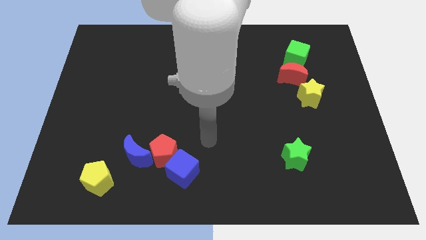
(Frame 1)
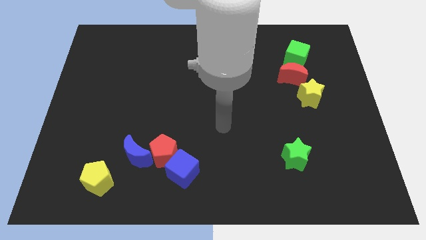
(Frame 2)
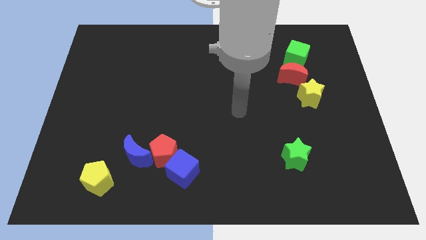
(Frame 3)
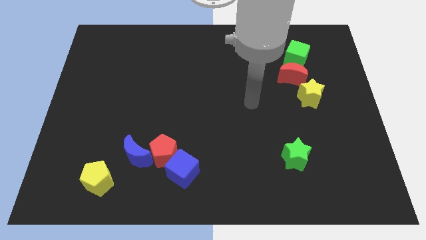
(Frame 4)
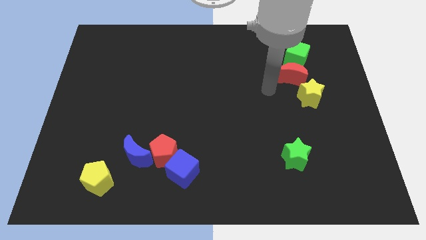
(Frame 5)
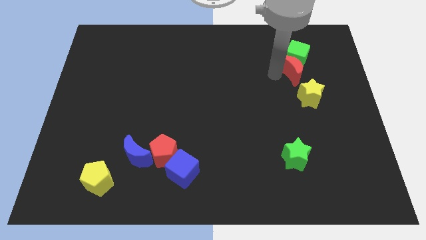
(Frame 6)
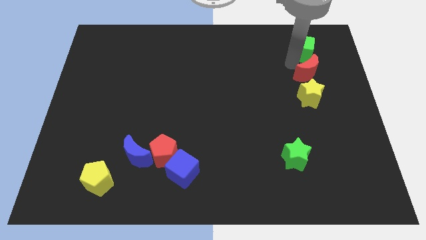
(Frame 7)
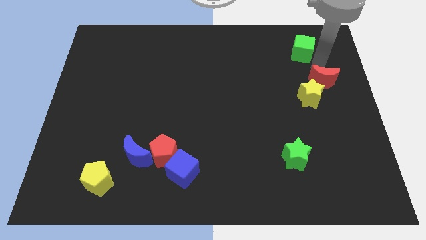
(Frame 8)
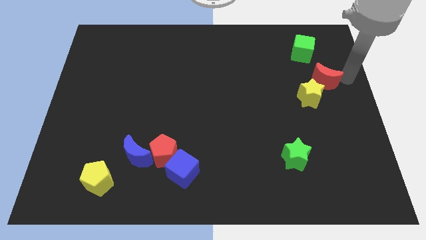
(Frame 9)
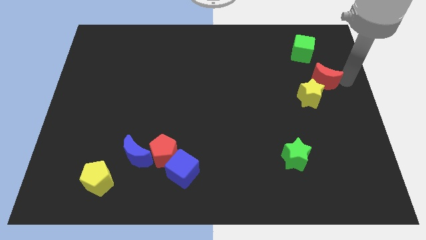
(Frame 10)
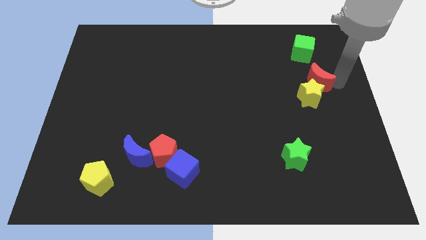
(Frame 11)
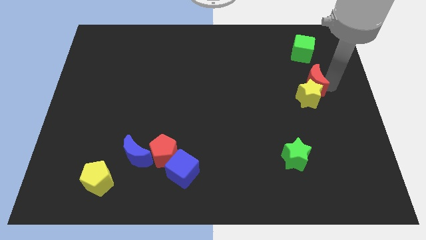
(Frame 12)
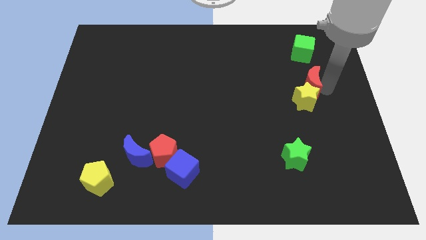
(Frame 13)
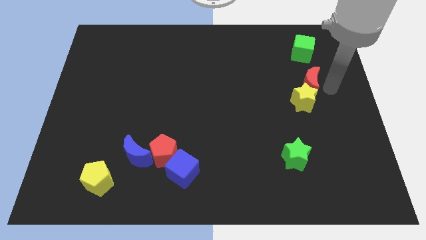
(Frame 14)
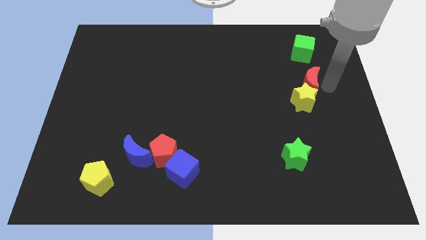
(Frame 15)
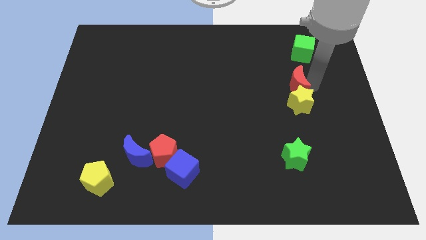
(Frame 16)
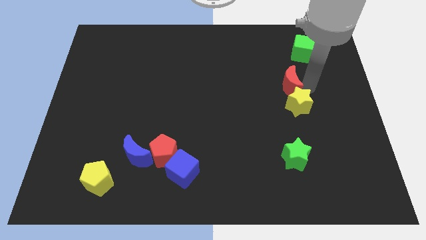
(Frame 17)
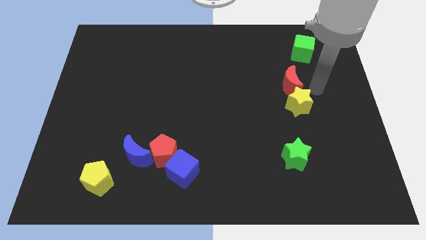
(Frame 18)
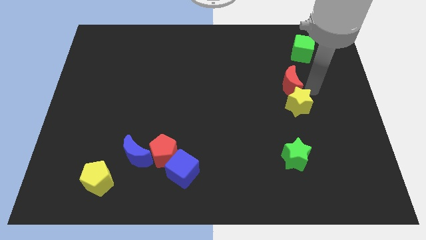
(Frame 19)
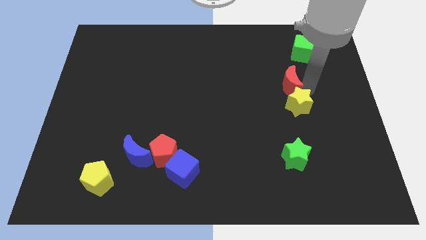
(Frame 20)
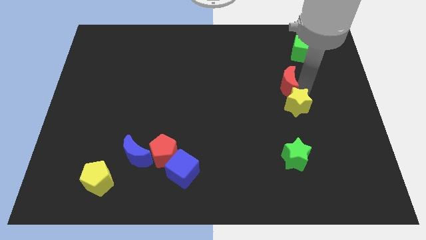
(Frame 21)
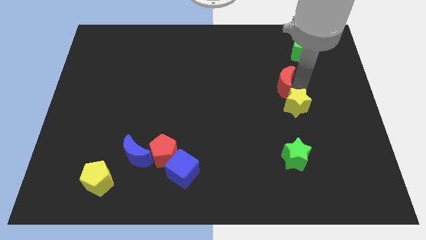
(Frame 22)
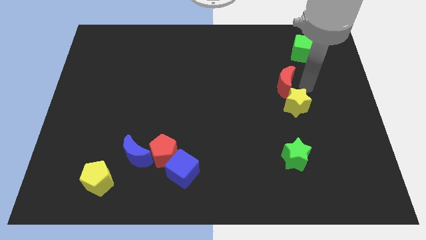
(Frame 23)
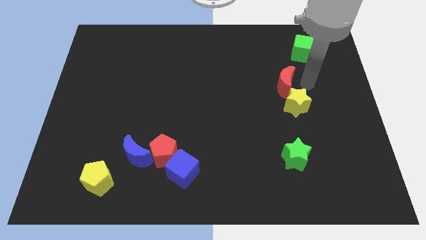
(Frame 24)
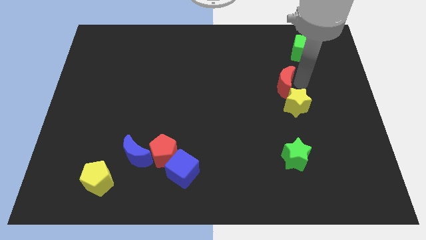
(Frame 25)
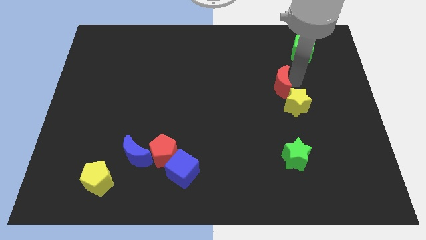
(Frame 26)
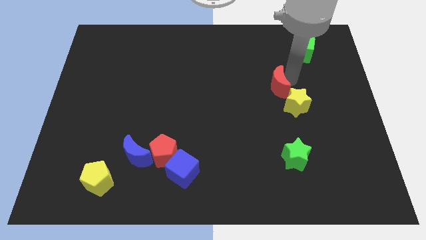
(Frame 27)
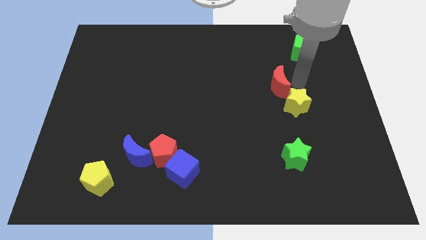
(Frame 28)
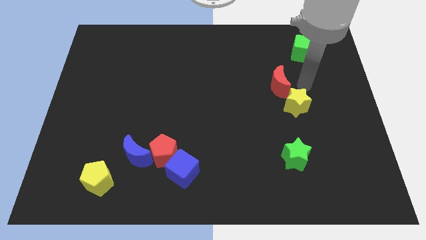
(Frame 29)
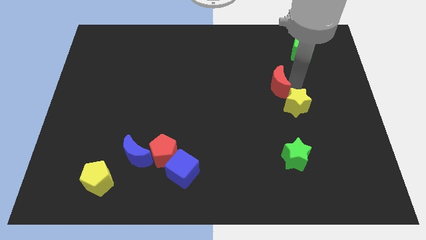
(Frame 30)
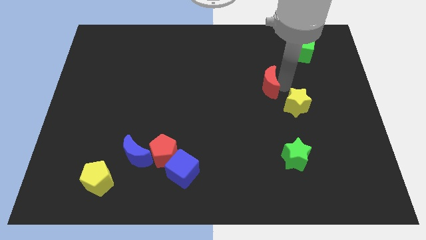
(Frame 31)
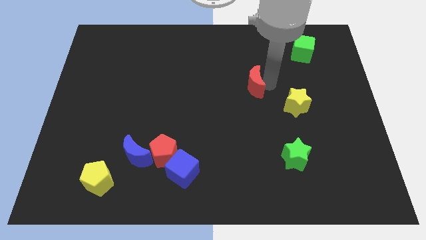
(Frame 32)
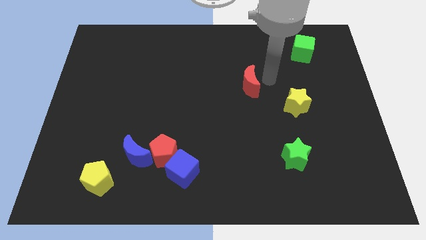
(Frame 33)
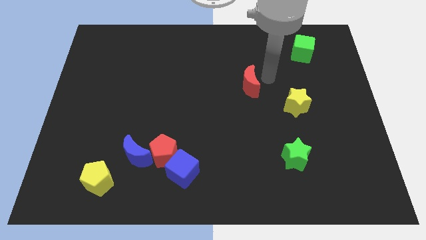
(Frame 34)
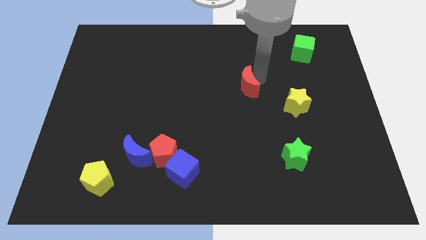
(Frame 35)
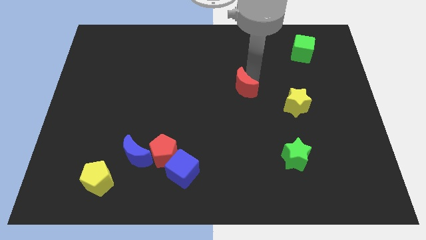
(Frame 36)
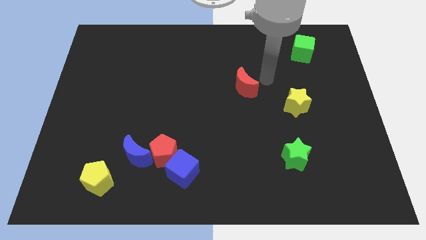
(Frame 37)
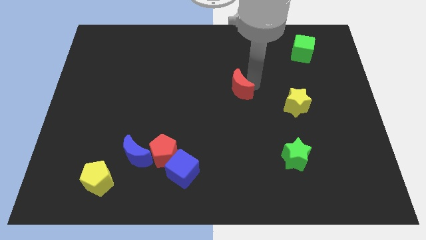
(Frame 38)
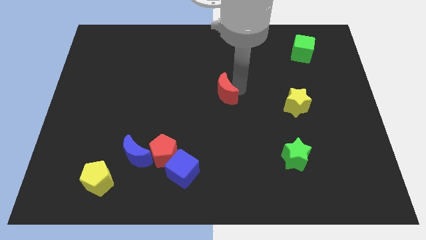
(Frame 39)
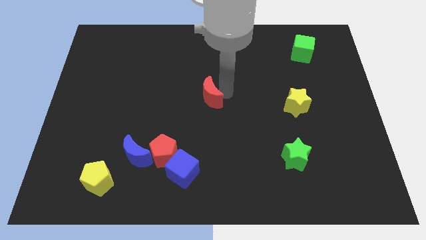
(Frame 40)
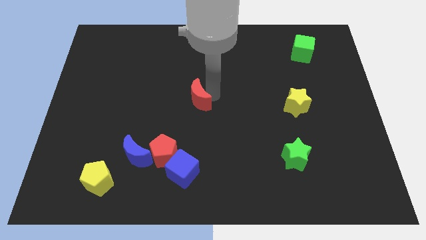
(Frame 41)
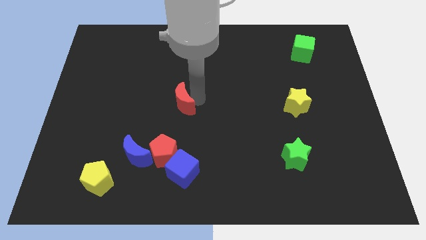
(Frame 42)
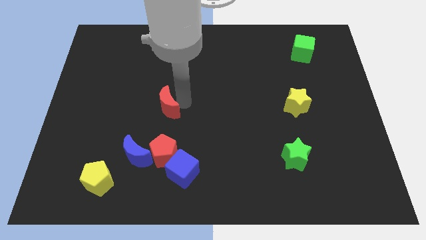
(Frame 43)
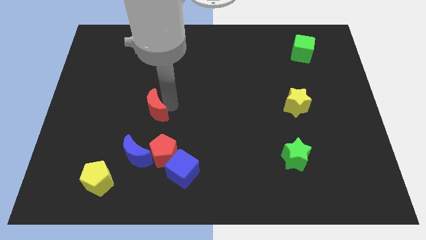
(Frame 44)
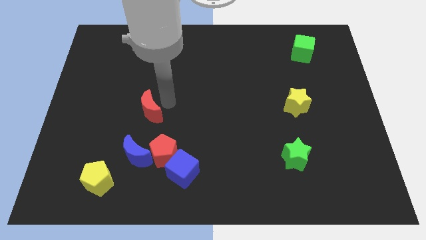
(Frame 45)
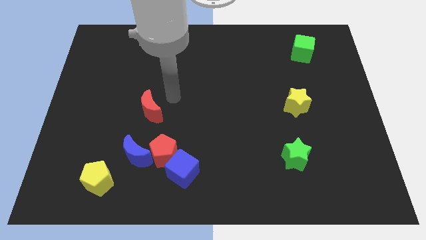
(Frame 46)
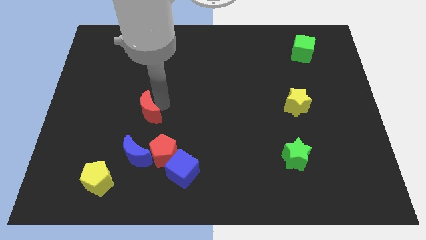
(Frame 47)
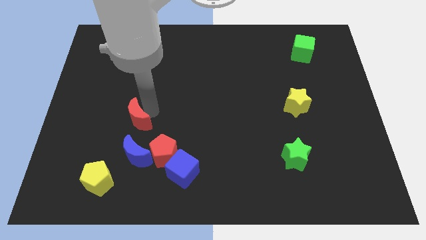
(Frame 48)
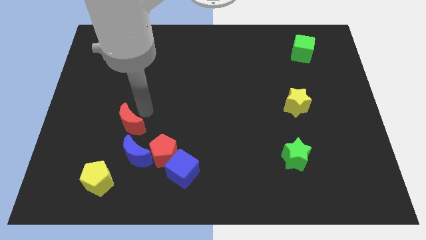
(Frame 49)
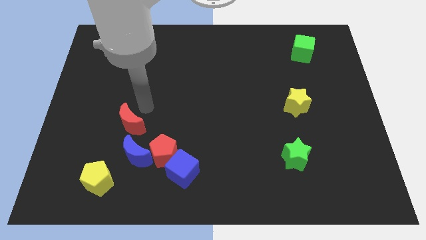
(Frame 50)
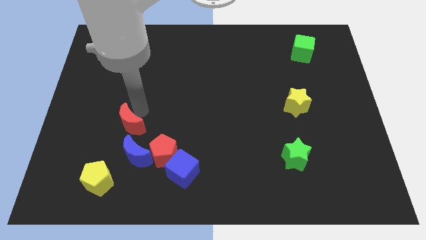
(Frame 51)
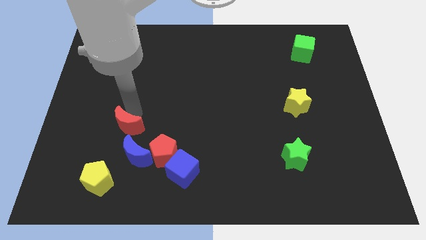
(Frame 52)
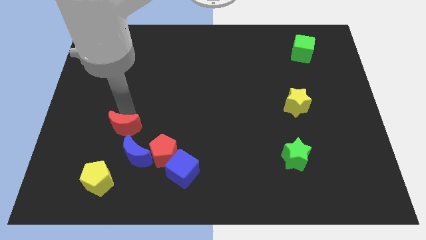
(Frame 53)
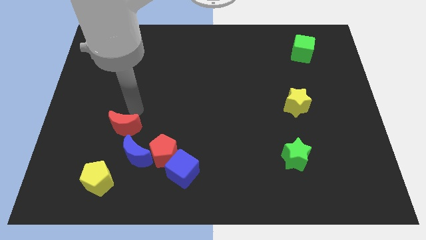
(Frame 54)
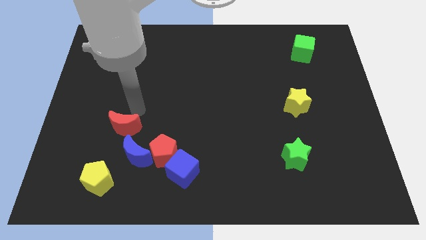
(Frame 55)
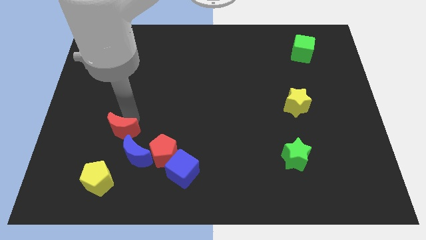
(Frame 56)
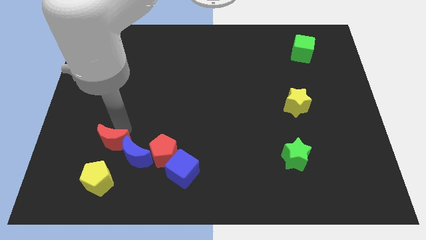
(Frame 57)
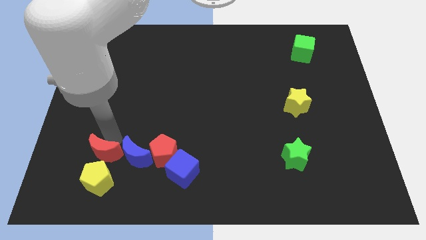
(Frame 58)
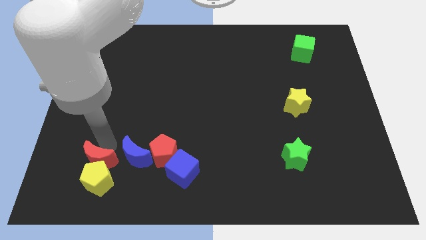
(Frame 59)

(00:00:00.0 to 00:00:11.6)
put the red moon next to the yellow pentagon

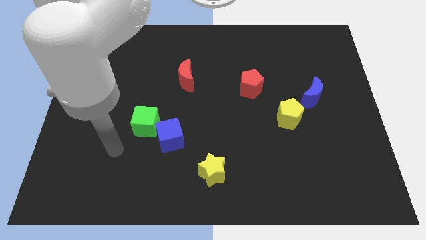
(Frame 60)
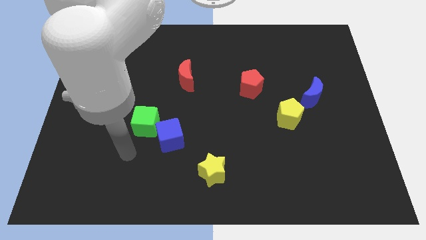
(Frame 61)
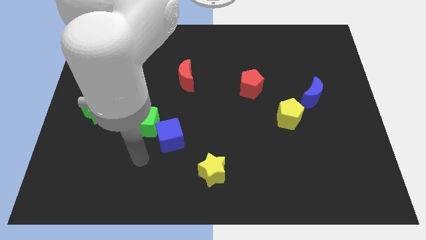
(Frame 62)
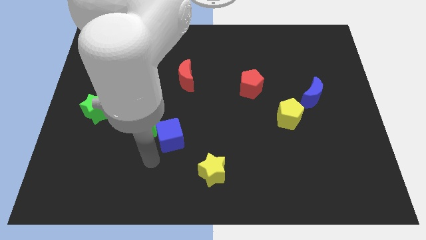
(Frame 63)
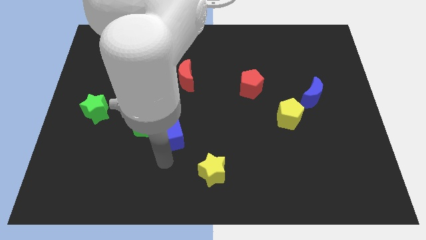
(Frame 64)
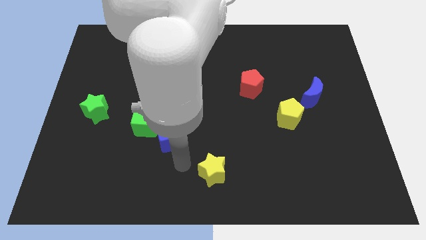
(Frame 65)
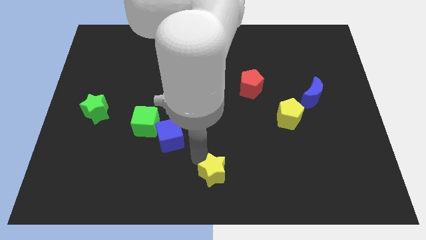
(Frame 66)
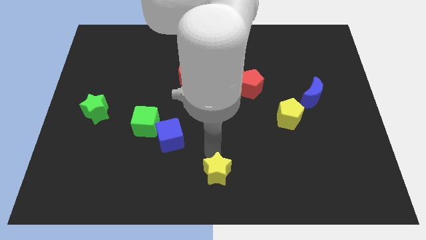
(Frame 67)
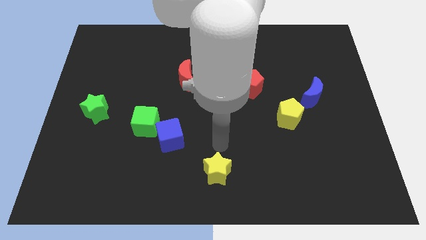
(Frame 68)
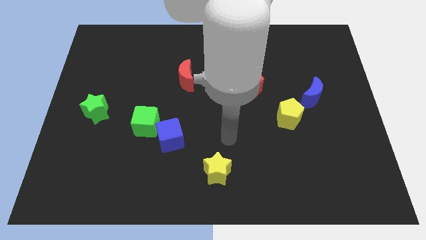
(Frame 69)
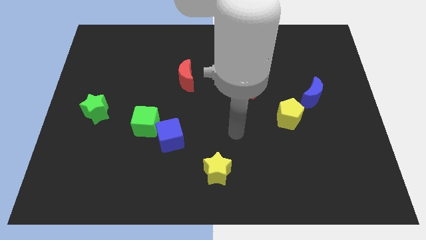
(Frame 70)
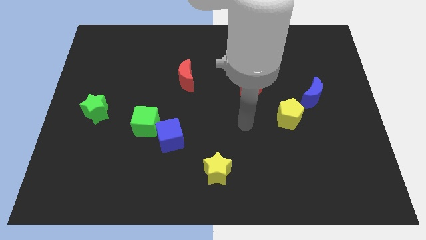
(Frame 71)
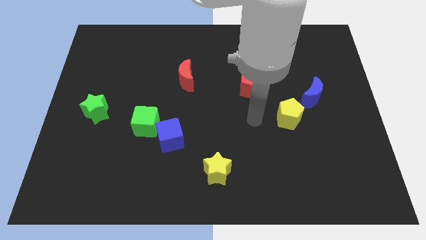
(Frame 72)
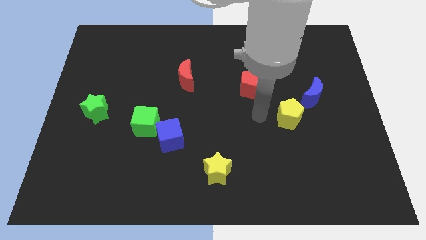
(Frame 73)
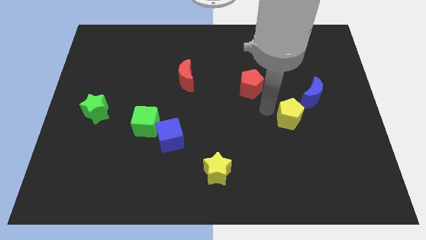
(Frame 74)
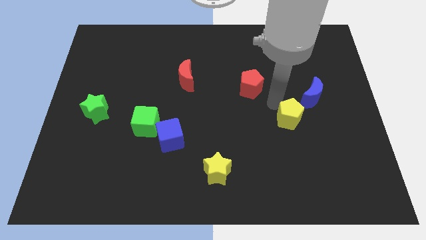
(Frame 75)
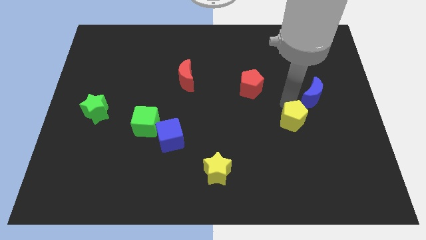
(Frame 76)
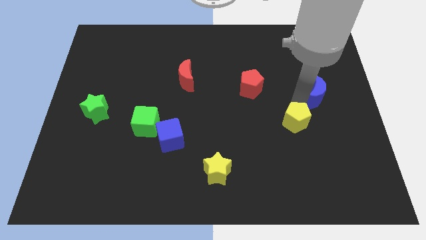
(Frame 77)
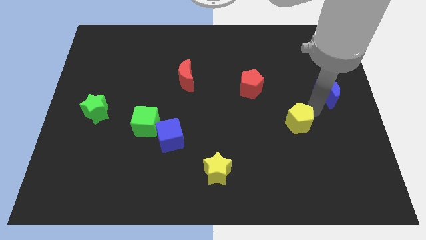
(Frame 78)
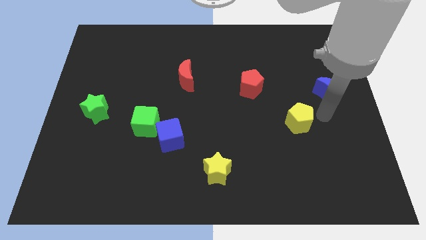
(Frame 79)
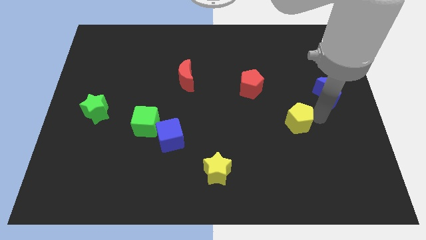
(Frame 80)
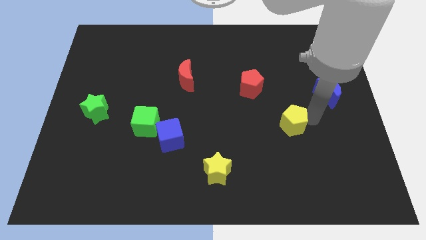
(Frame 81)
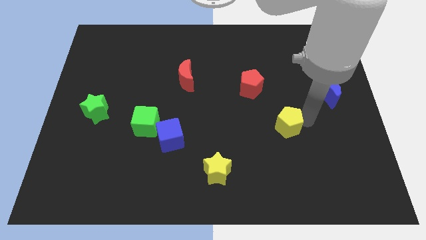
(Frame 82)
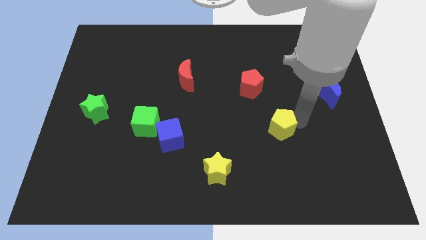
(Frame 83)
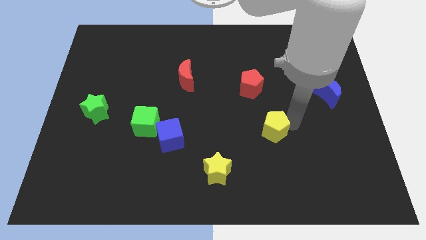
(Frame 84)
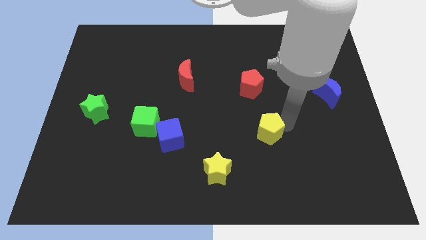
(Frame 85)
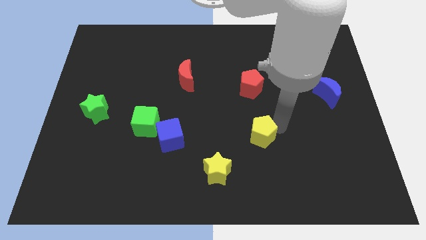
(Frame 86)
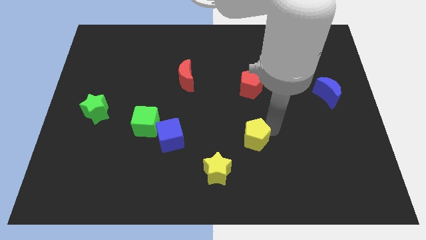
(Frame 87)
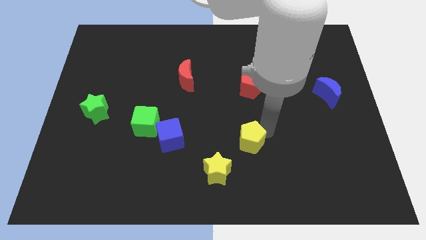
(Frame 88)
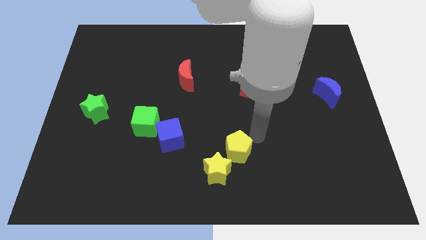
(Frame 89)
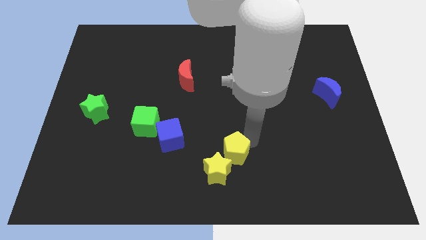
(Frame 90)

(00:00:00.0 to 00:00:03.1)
put the yellow pentagon towards the yellow star
